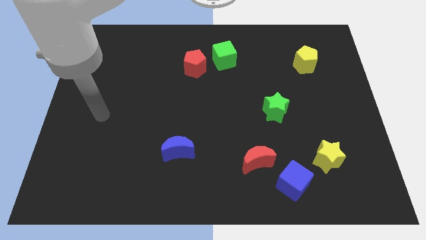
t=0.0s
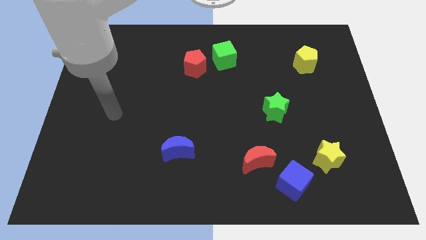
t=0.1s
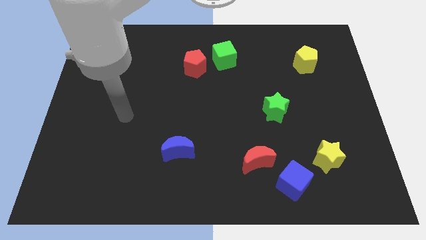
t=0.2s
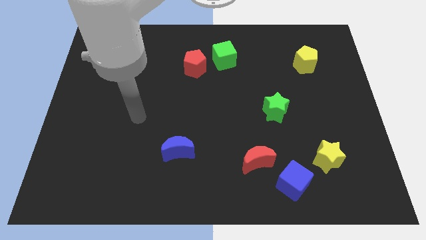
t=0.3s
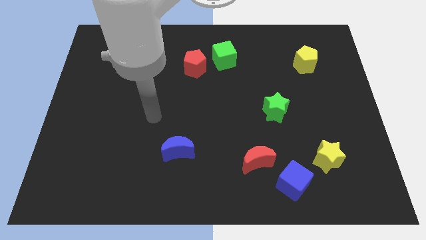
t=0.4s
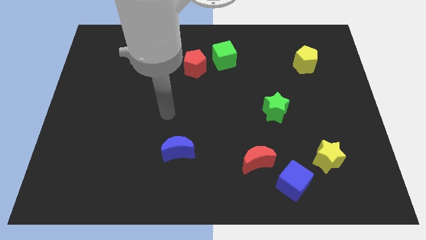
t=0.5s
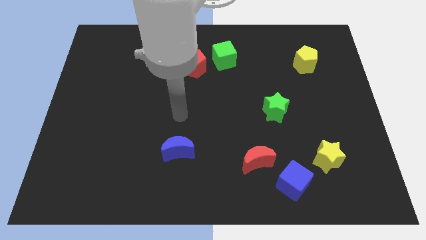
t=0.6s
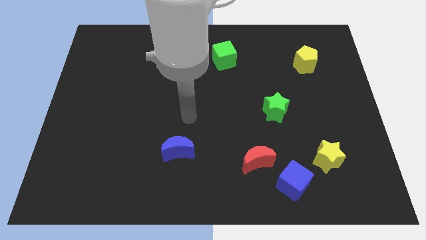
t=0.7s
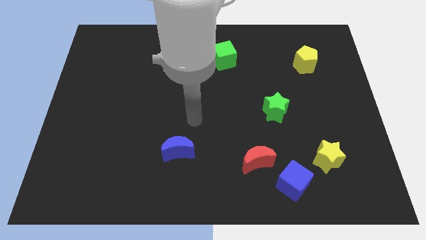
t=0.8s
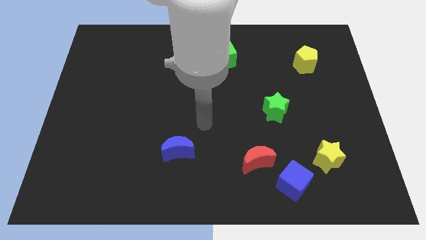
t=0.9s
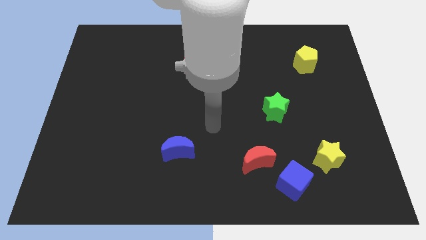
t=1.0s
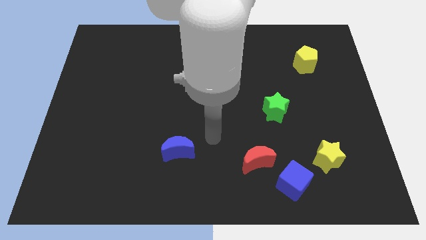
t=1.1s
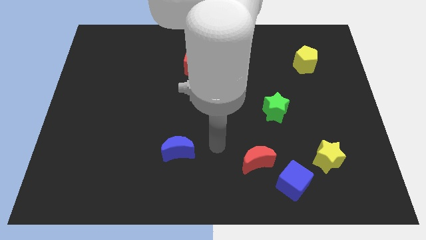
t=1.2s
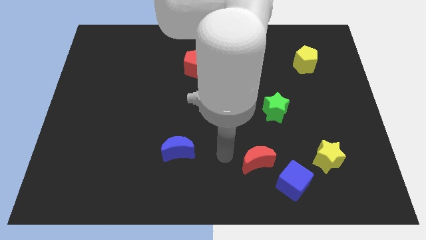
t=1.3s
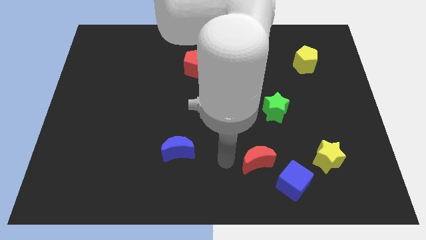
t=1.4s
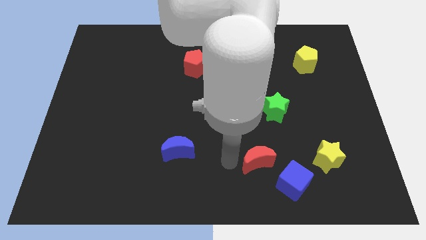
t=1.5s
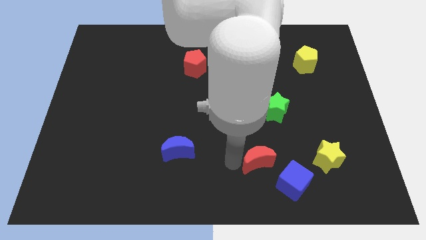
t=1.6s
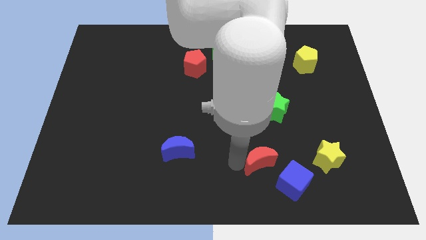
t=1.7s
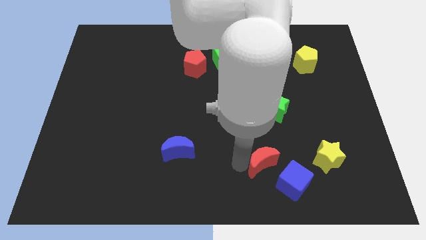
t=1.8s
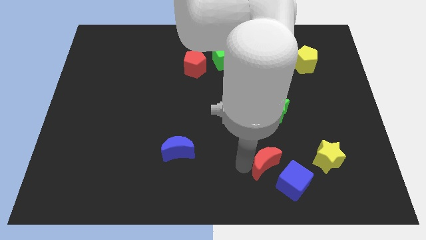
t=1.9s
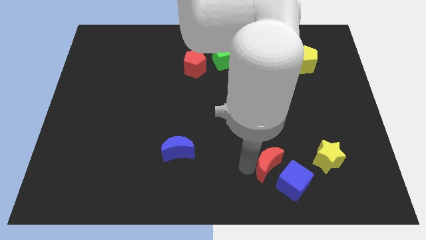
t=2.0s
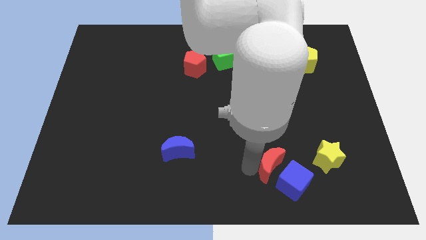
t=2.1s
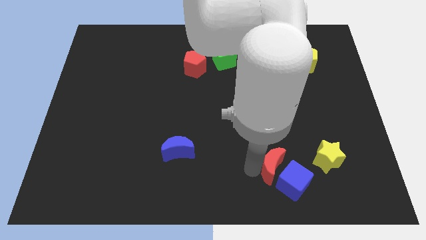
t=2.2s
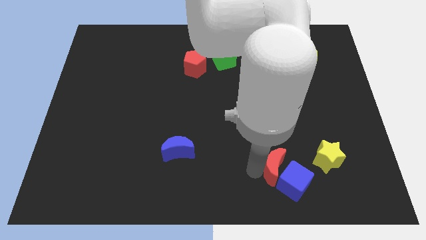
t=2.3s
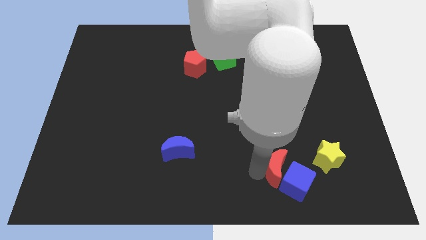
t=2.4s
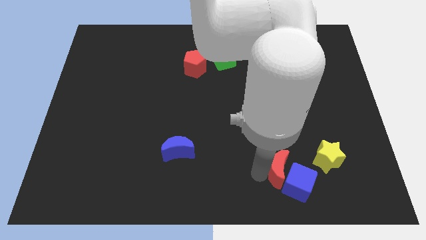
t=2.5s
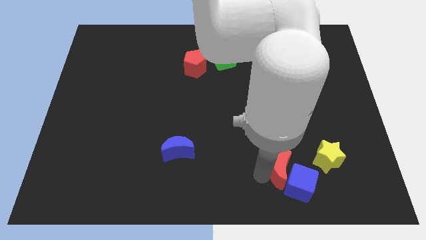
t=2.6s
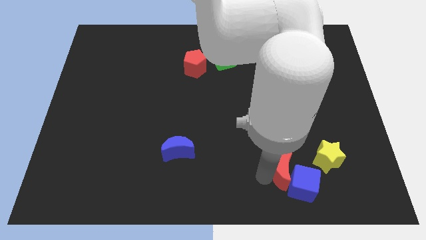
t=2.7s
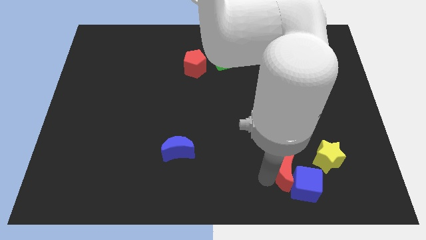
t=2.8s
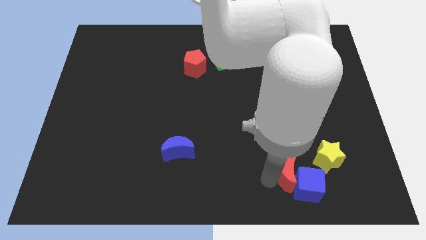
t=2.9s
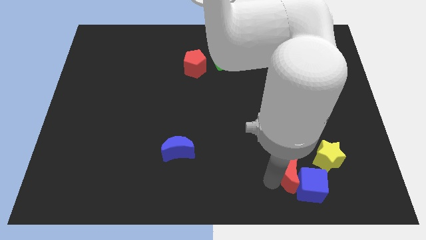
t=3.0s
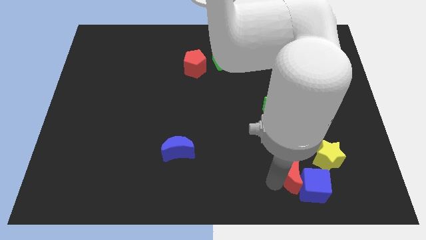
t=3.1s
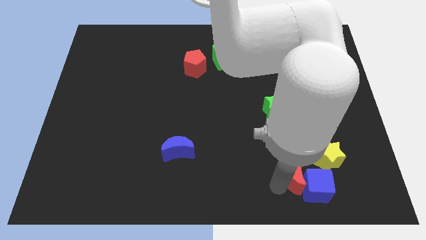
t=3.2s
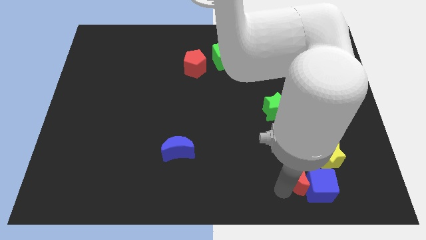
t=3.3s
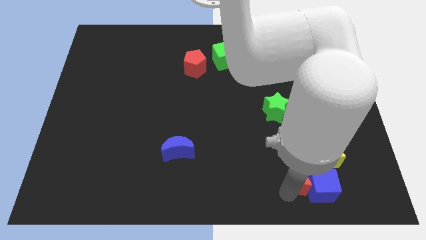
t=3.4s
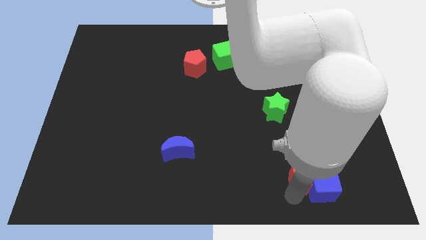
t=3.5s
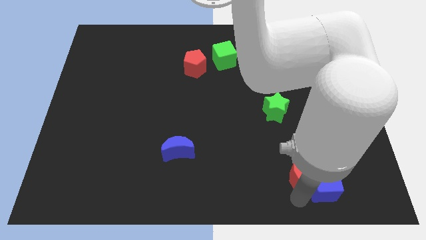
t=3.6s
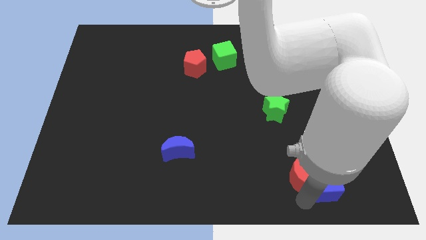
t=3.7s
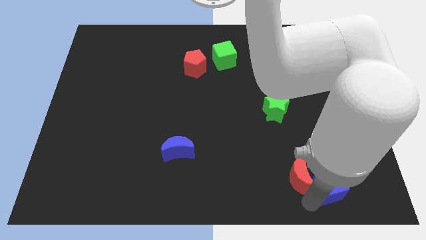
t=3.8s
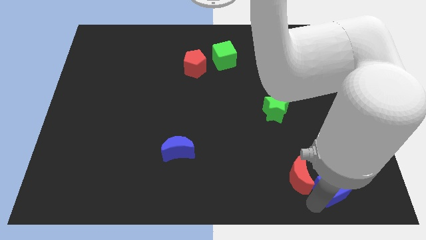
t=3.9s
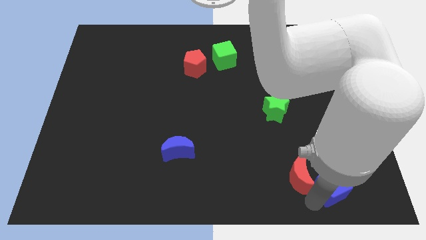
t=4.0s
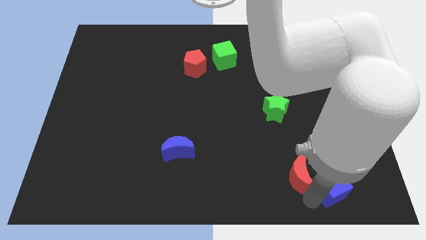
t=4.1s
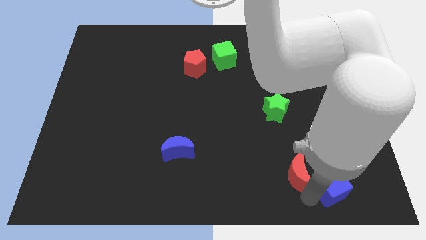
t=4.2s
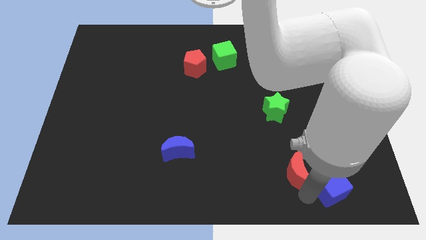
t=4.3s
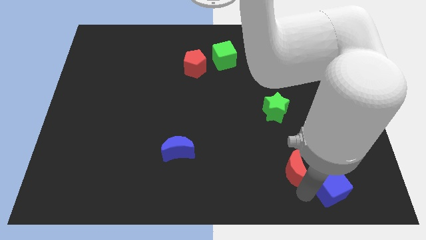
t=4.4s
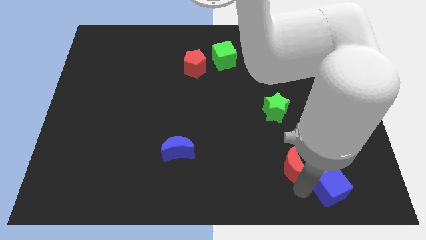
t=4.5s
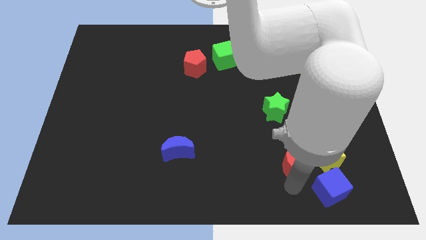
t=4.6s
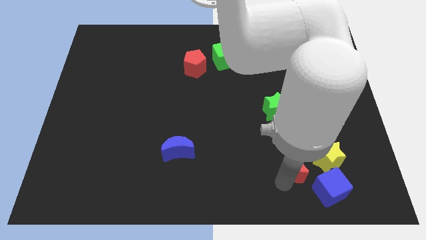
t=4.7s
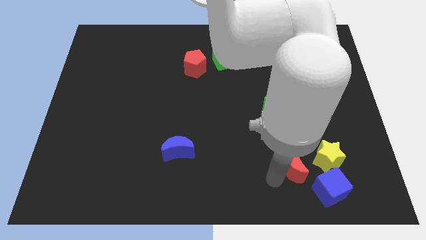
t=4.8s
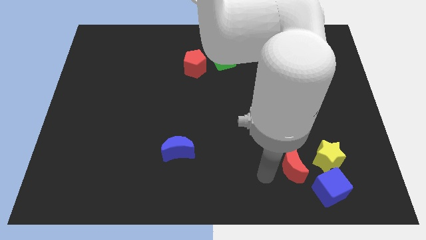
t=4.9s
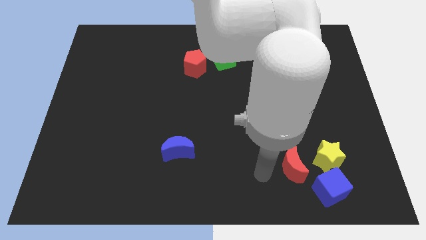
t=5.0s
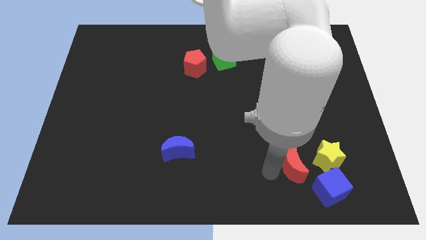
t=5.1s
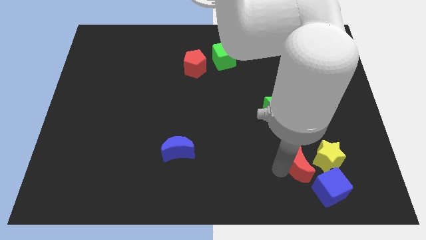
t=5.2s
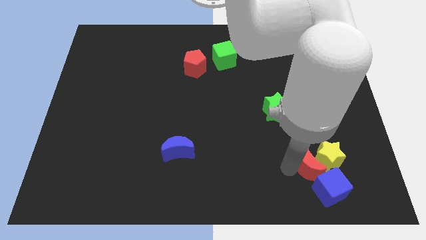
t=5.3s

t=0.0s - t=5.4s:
push the red moon next to the yellow star

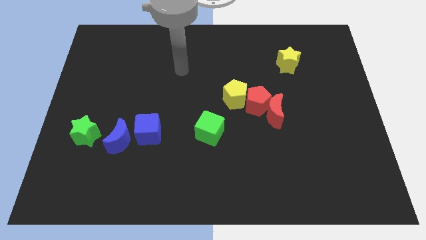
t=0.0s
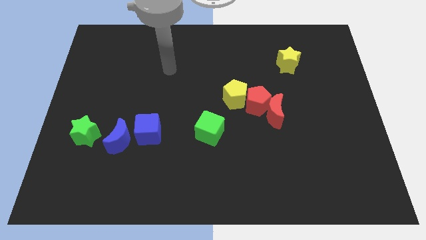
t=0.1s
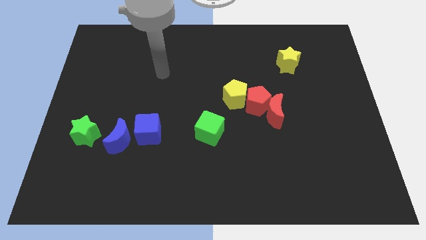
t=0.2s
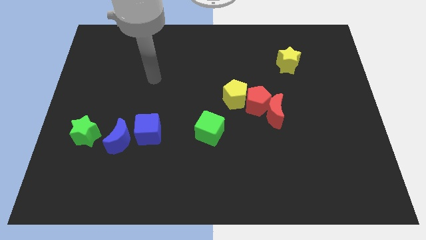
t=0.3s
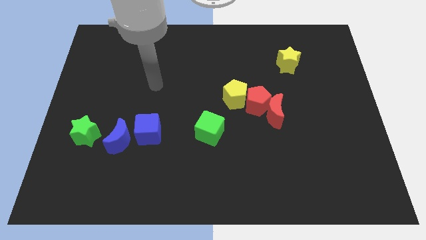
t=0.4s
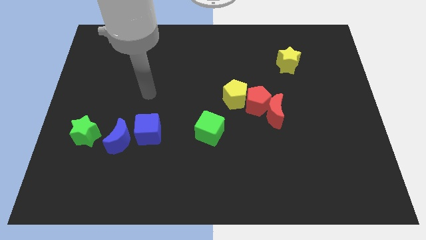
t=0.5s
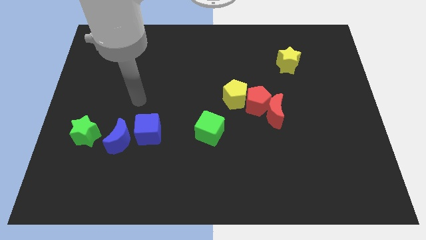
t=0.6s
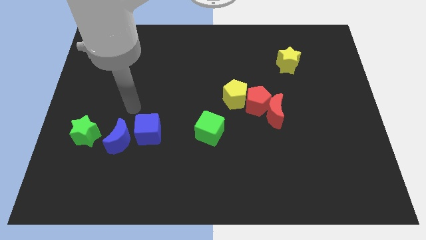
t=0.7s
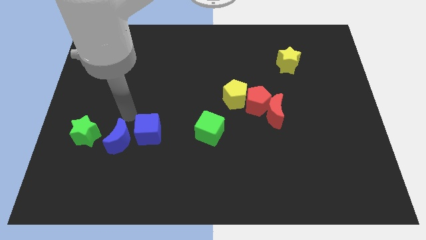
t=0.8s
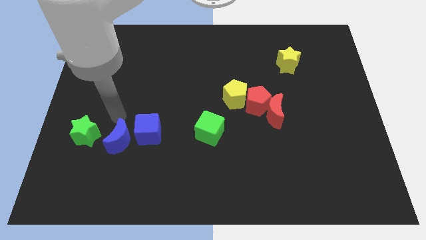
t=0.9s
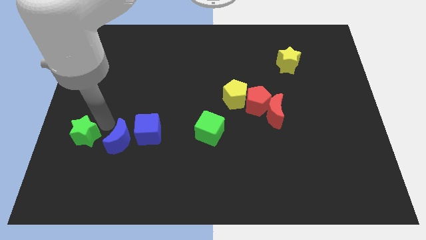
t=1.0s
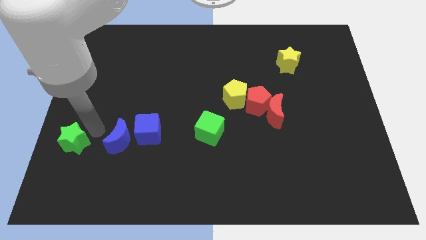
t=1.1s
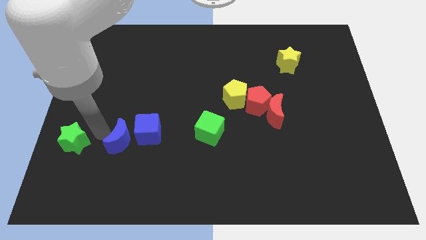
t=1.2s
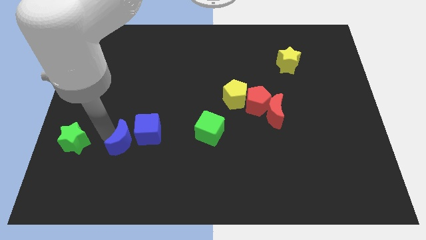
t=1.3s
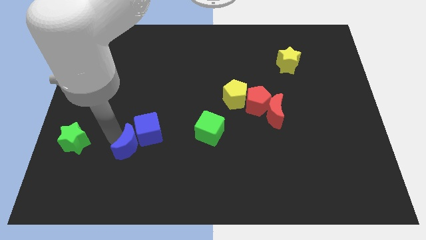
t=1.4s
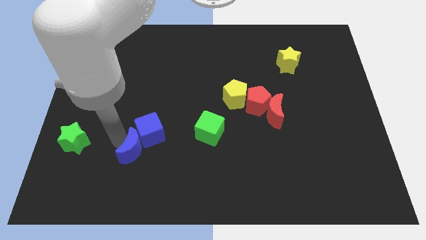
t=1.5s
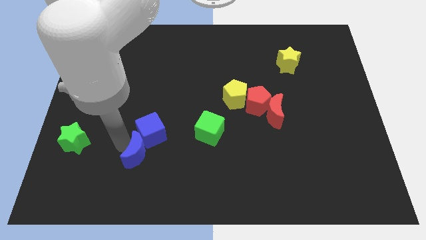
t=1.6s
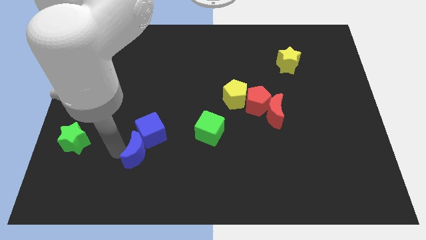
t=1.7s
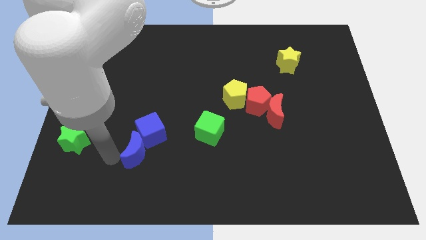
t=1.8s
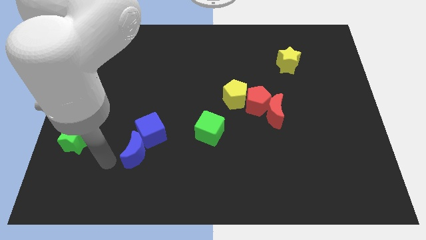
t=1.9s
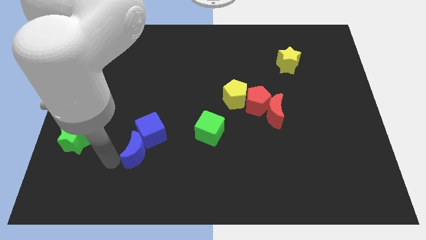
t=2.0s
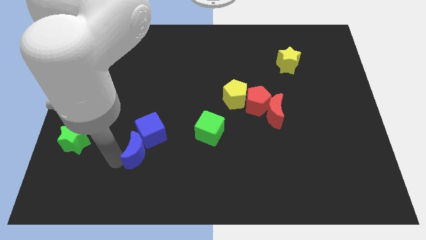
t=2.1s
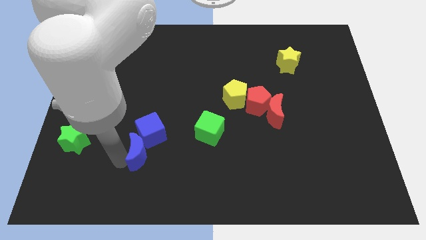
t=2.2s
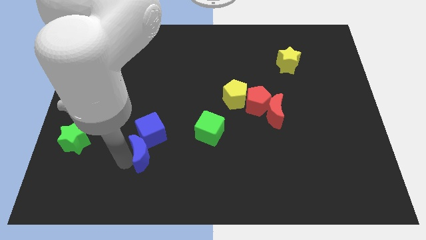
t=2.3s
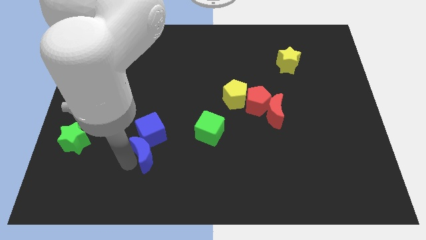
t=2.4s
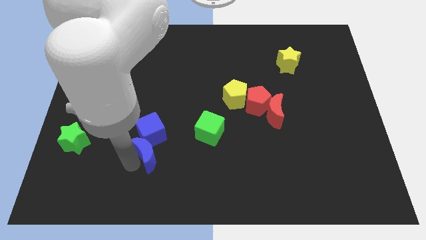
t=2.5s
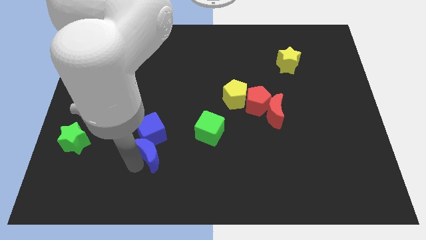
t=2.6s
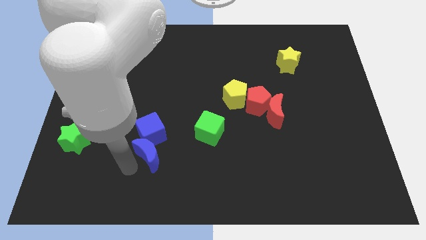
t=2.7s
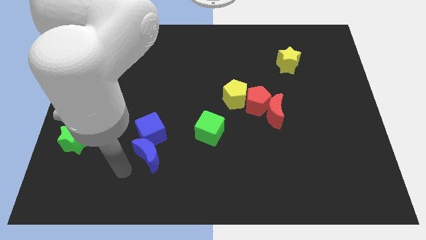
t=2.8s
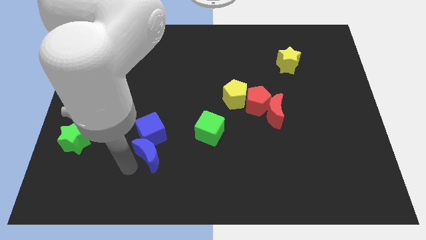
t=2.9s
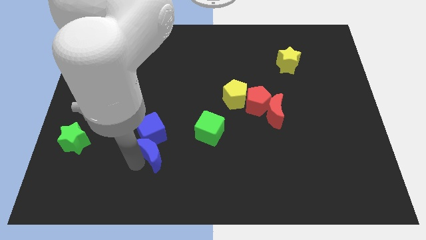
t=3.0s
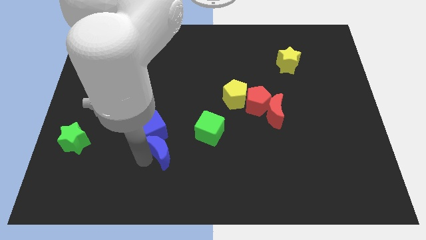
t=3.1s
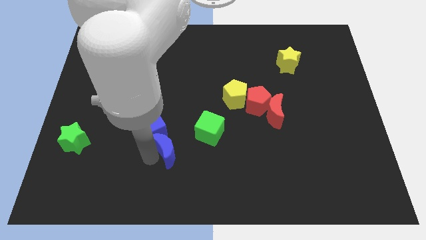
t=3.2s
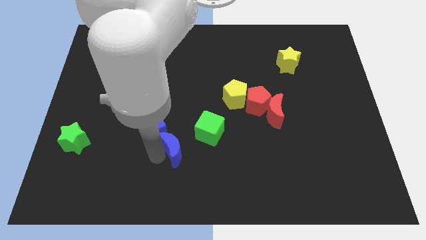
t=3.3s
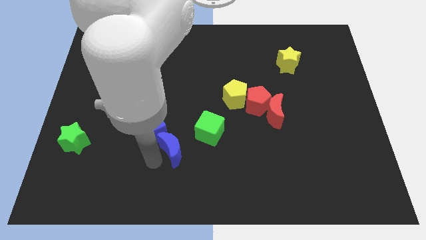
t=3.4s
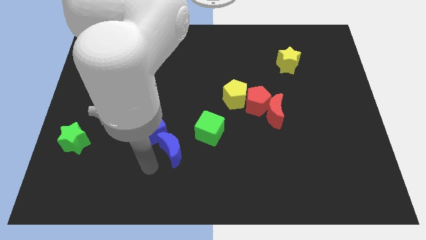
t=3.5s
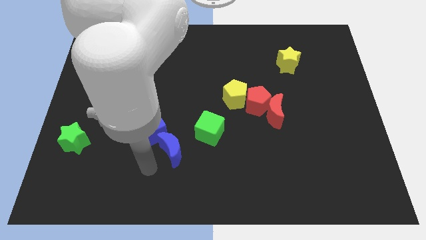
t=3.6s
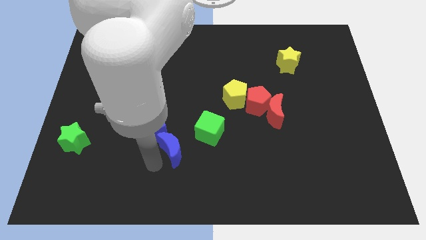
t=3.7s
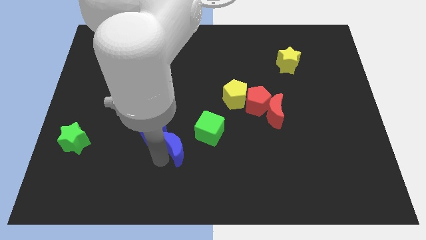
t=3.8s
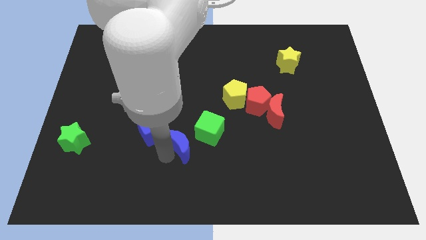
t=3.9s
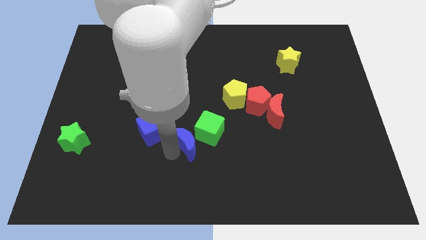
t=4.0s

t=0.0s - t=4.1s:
slide the blue moon next to the green cube
